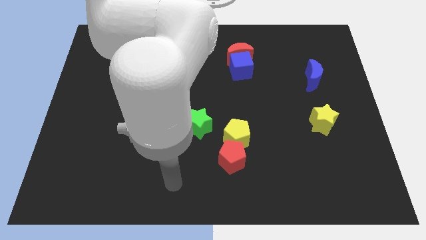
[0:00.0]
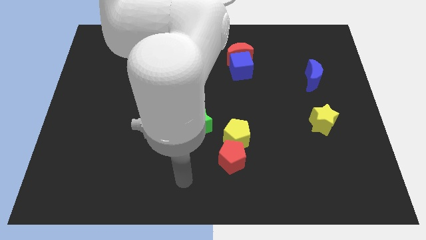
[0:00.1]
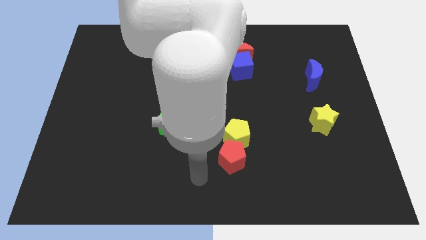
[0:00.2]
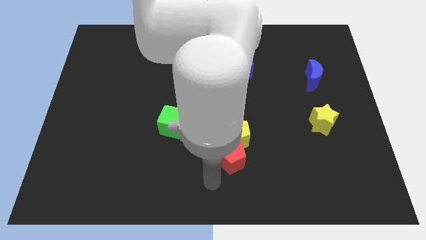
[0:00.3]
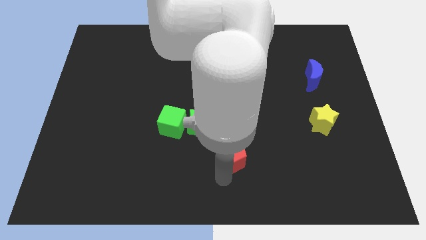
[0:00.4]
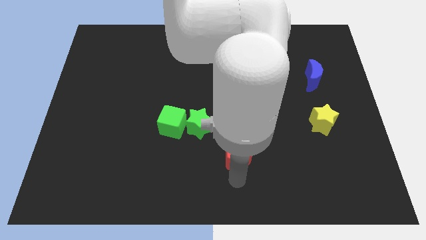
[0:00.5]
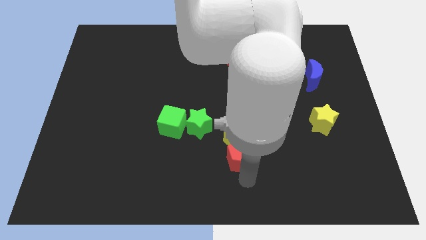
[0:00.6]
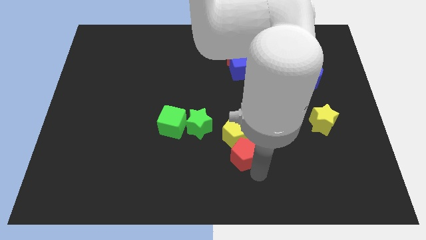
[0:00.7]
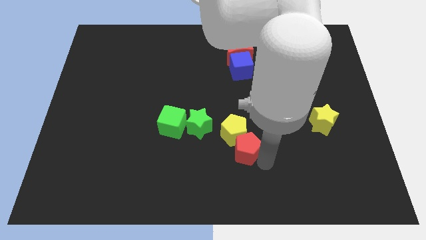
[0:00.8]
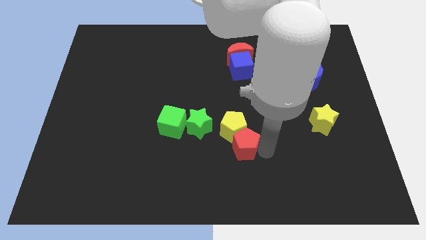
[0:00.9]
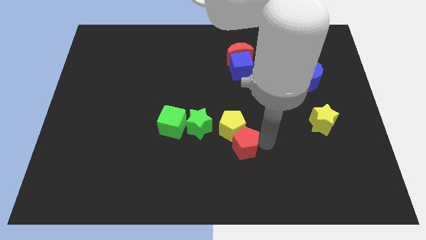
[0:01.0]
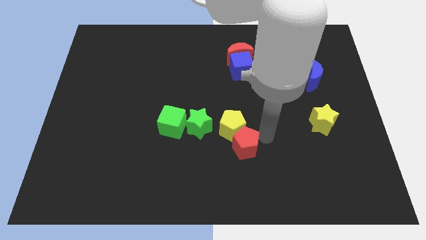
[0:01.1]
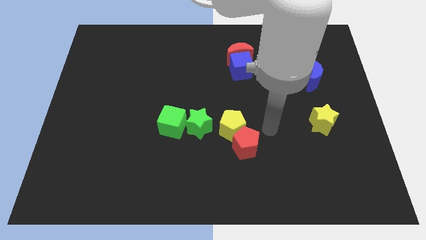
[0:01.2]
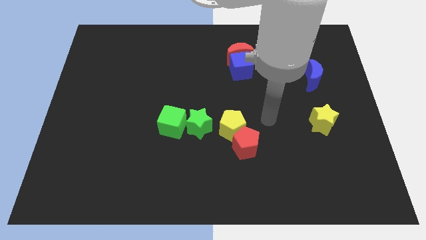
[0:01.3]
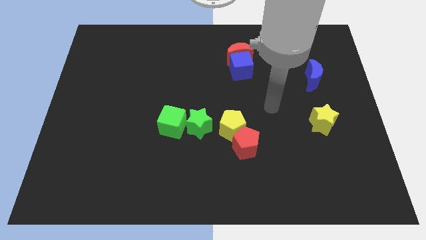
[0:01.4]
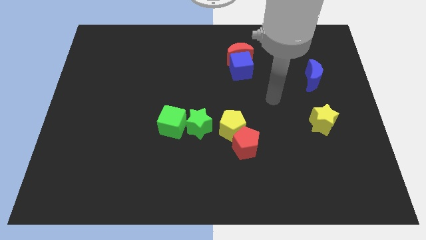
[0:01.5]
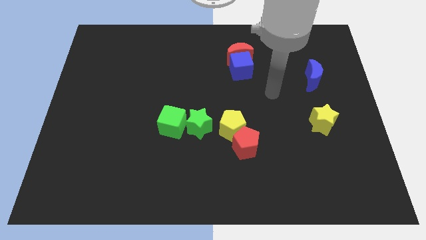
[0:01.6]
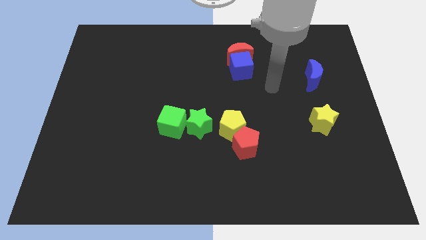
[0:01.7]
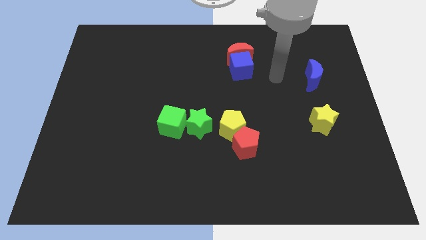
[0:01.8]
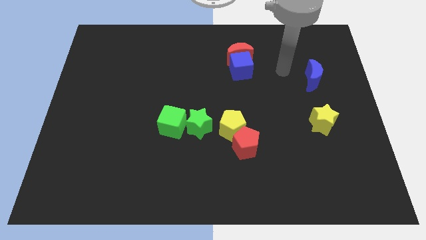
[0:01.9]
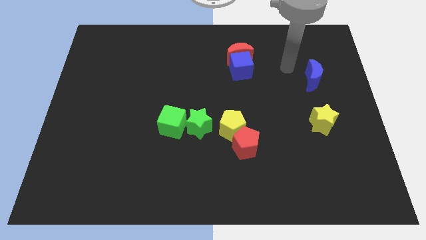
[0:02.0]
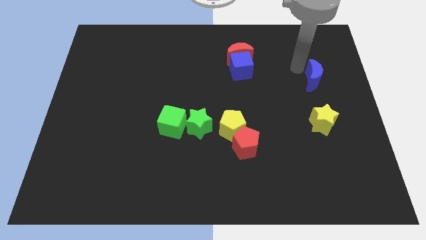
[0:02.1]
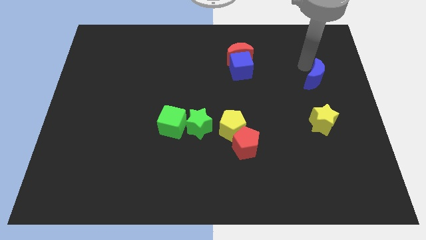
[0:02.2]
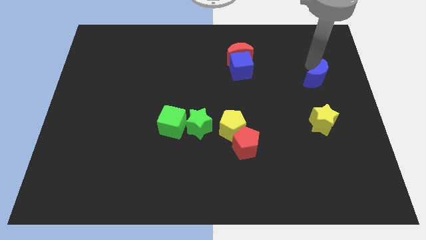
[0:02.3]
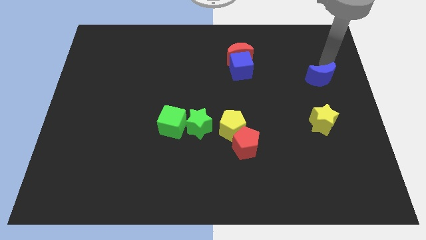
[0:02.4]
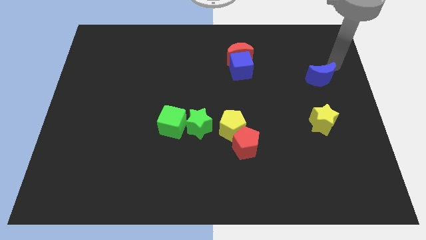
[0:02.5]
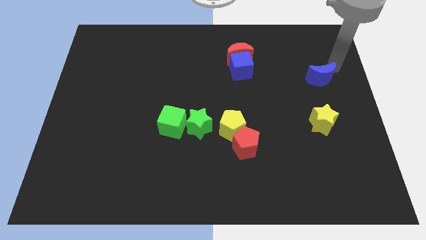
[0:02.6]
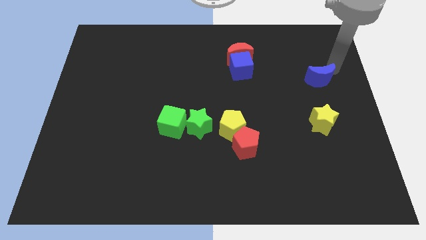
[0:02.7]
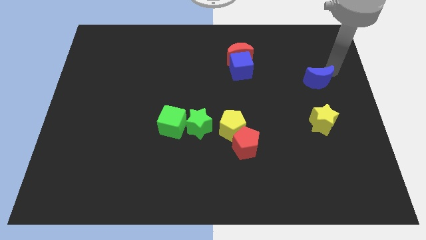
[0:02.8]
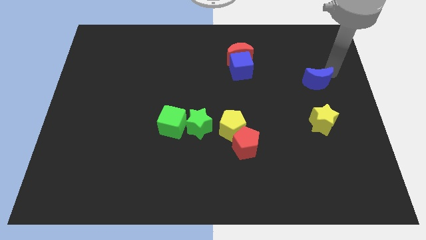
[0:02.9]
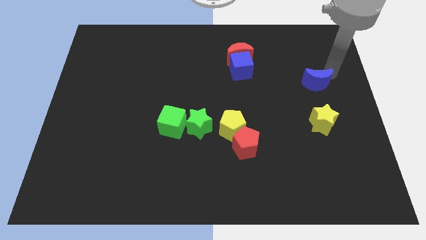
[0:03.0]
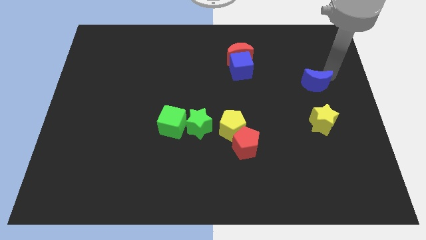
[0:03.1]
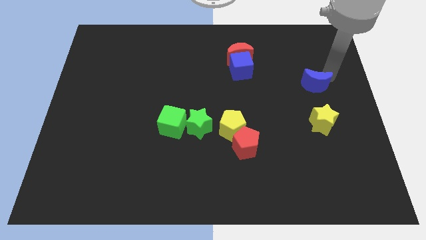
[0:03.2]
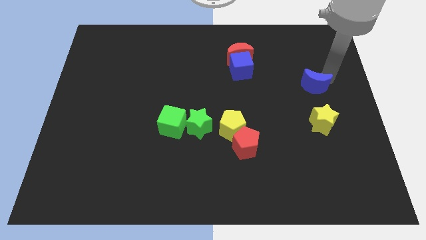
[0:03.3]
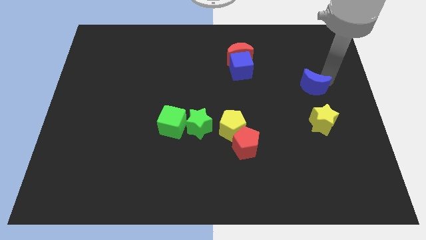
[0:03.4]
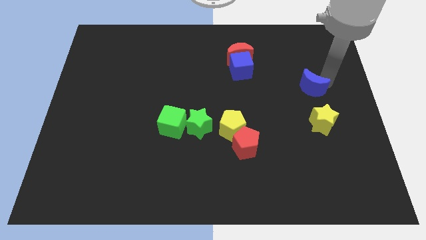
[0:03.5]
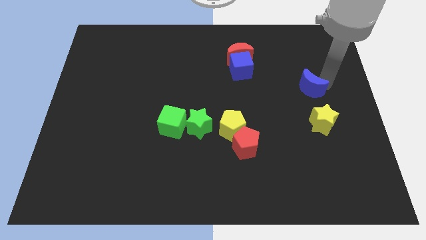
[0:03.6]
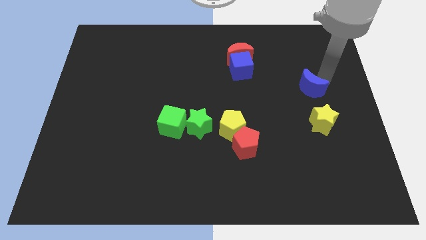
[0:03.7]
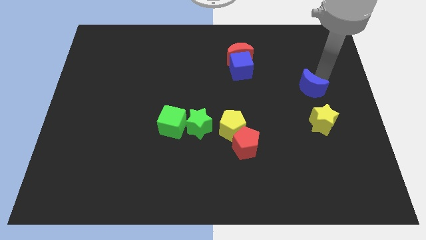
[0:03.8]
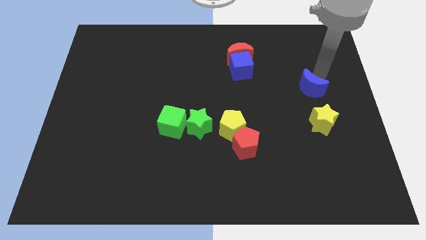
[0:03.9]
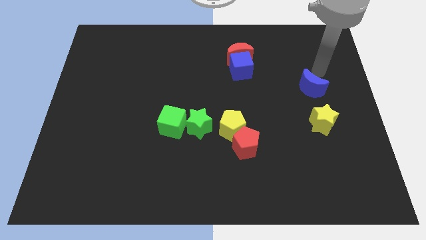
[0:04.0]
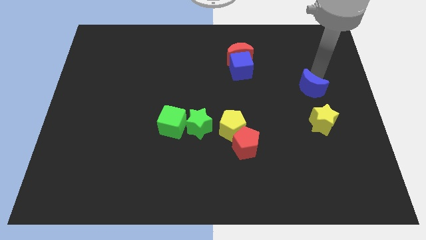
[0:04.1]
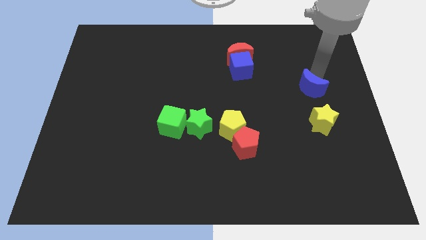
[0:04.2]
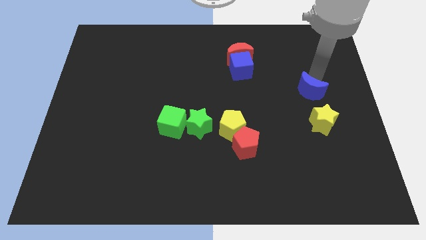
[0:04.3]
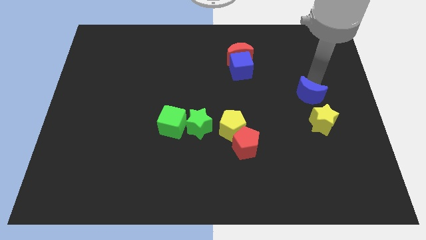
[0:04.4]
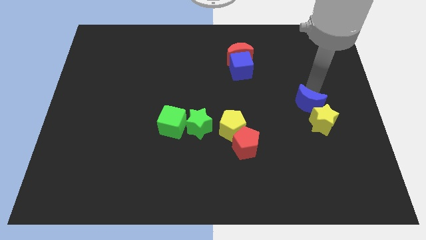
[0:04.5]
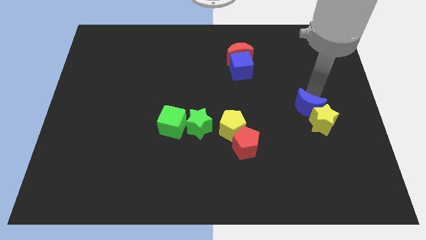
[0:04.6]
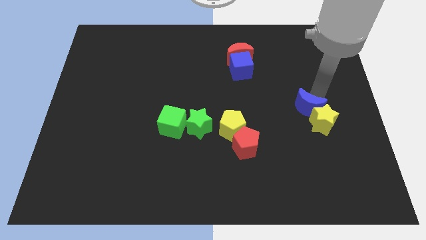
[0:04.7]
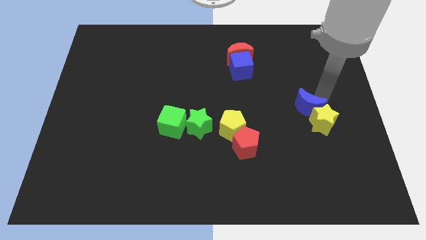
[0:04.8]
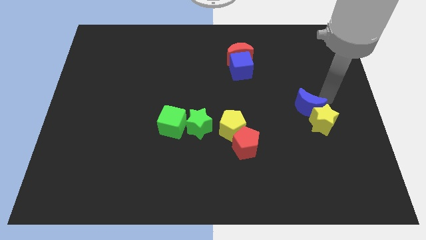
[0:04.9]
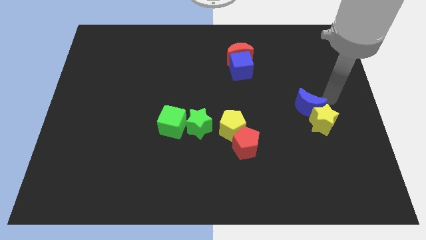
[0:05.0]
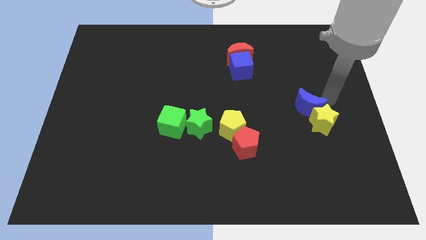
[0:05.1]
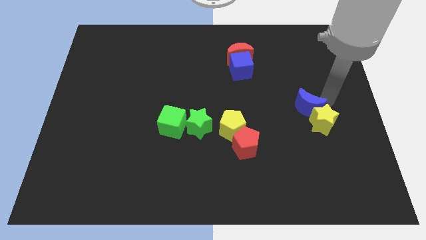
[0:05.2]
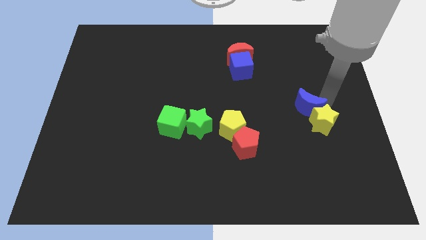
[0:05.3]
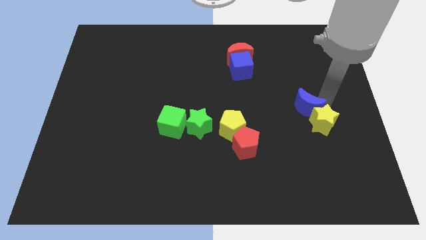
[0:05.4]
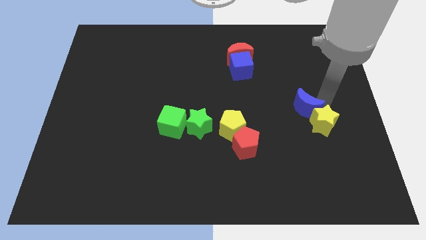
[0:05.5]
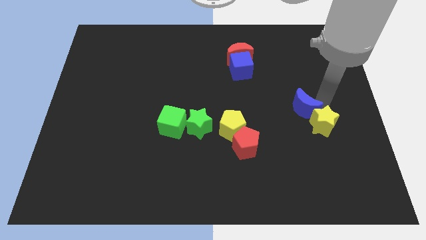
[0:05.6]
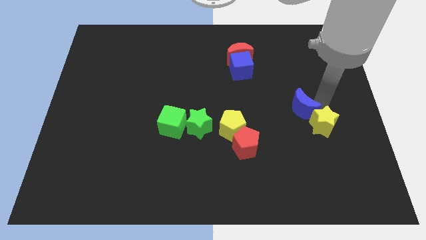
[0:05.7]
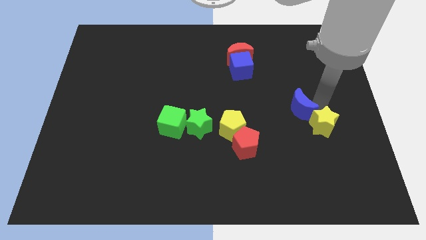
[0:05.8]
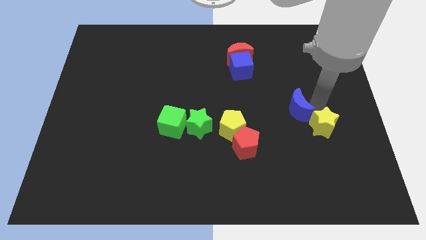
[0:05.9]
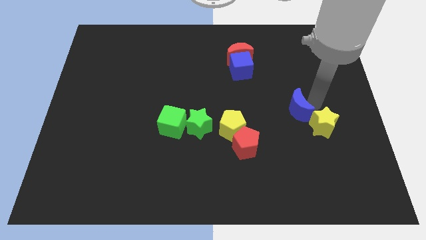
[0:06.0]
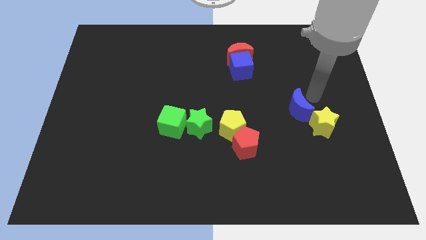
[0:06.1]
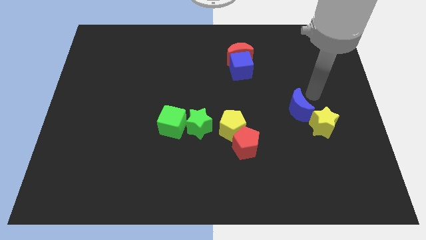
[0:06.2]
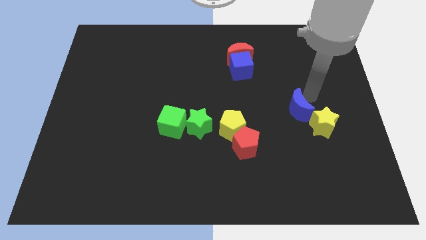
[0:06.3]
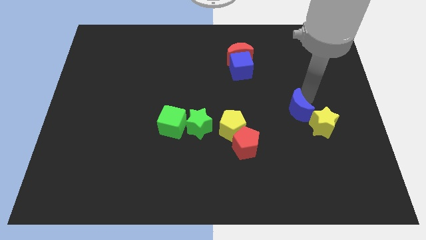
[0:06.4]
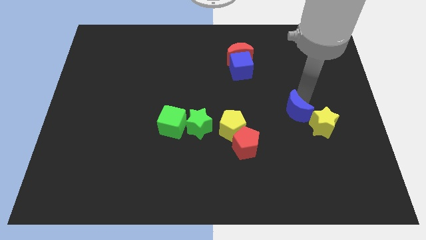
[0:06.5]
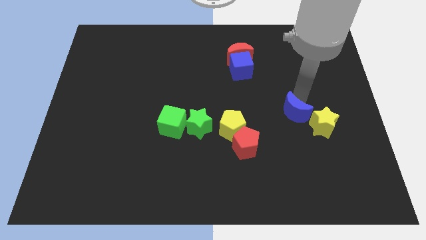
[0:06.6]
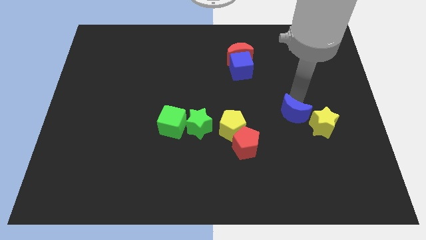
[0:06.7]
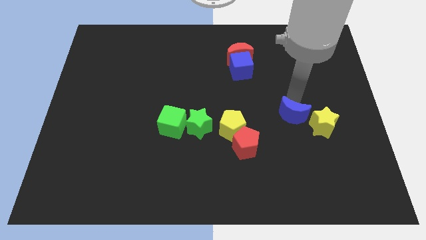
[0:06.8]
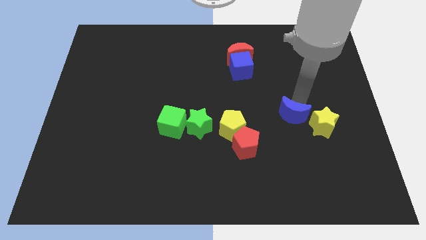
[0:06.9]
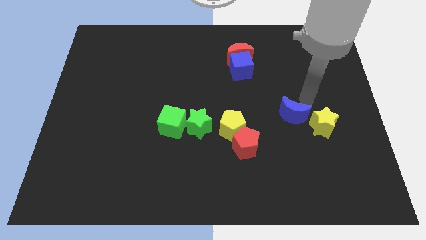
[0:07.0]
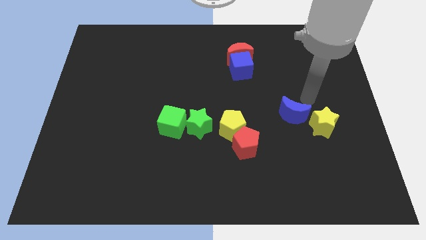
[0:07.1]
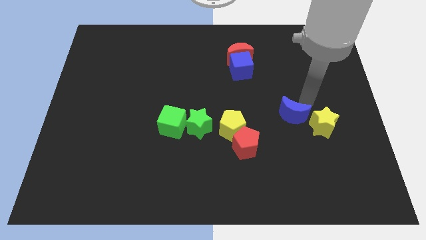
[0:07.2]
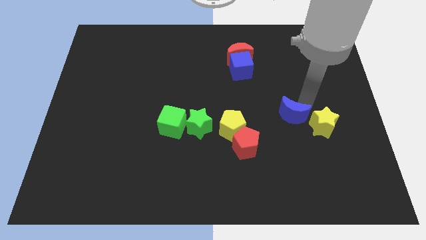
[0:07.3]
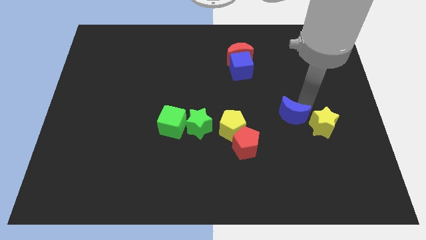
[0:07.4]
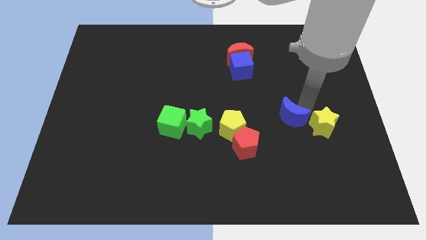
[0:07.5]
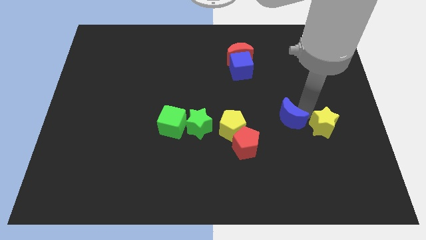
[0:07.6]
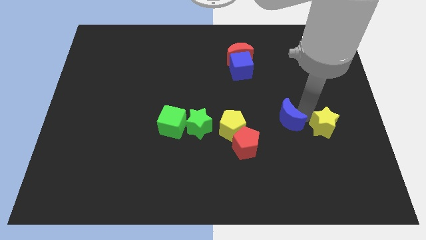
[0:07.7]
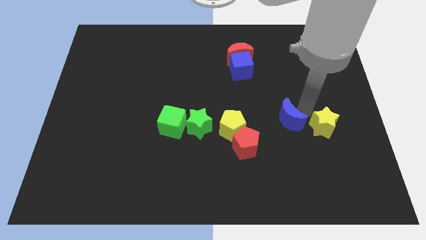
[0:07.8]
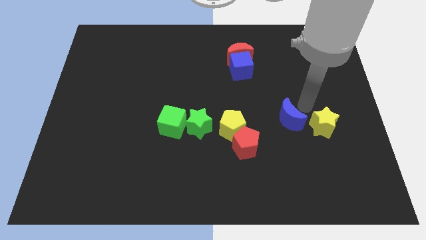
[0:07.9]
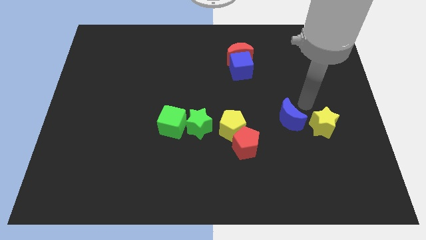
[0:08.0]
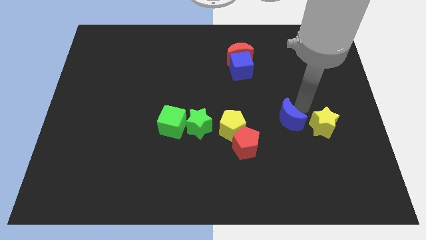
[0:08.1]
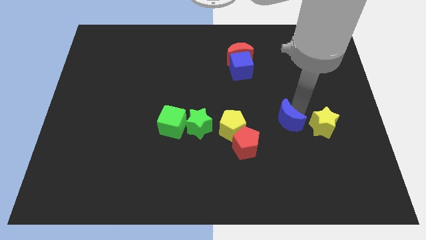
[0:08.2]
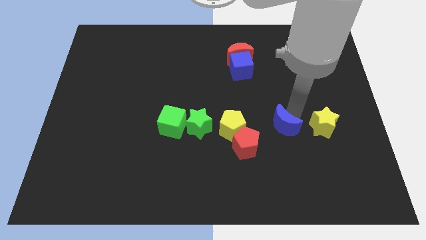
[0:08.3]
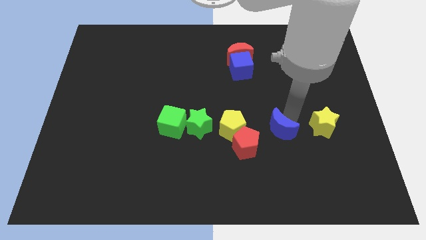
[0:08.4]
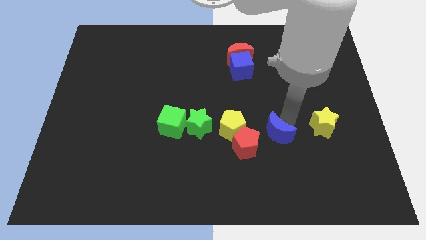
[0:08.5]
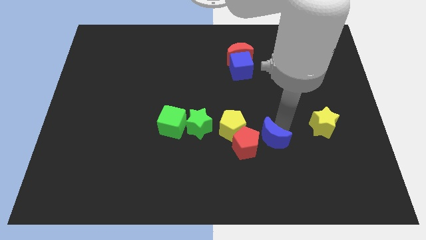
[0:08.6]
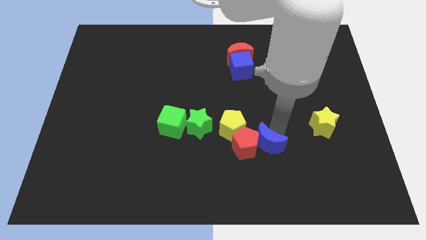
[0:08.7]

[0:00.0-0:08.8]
push the blue moon next to the red pentagon
